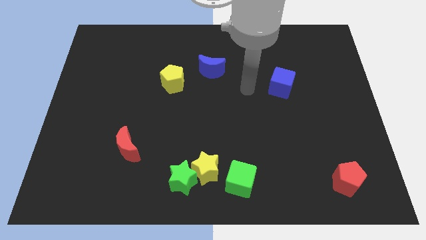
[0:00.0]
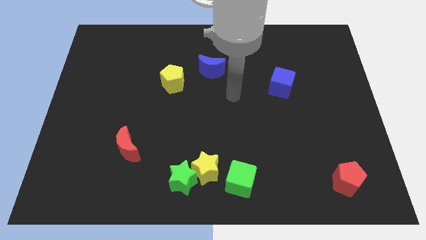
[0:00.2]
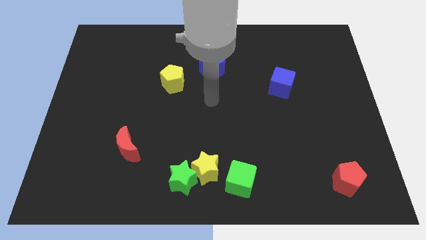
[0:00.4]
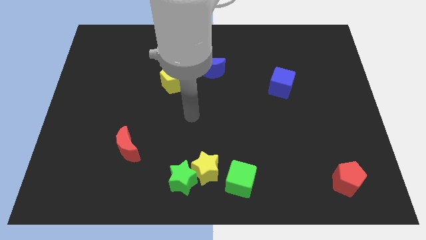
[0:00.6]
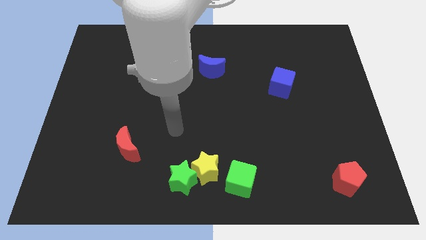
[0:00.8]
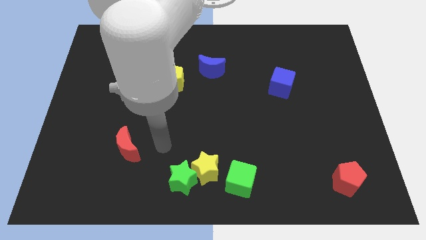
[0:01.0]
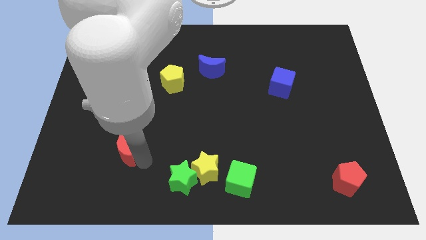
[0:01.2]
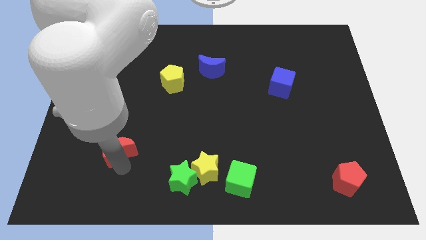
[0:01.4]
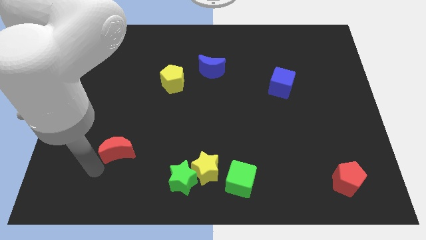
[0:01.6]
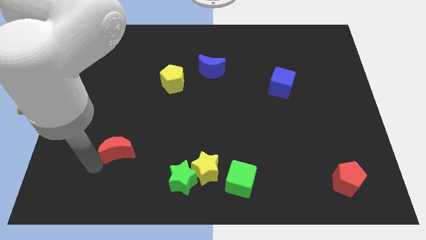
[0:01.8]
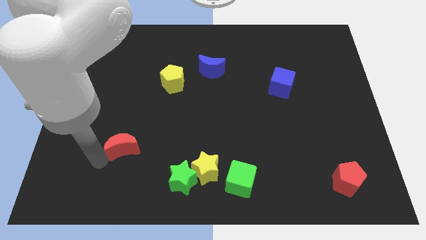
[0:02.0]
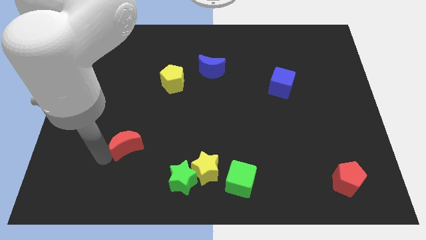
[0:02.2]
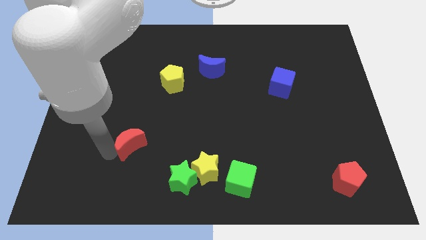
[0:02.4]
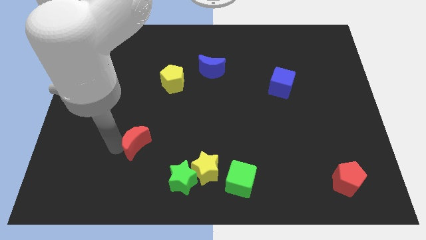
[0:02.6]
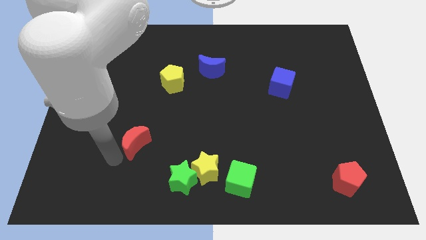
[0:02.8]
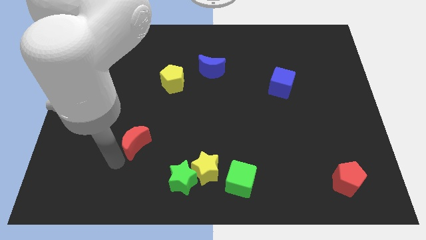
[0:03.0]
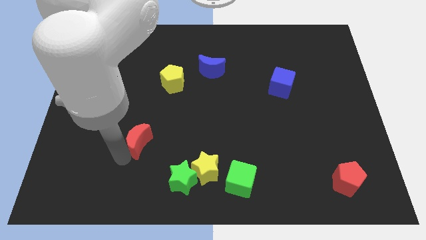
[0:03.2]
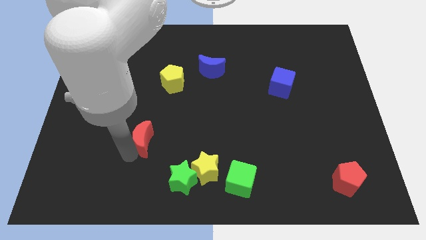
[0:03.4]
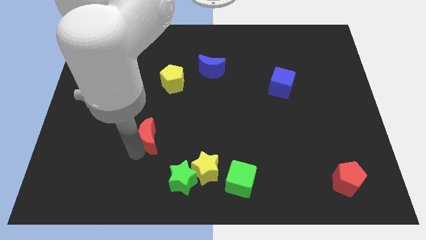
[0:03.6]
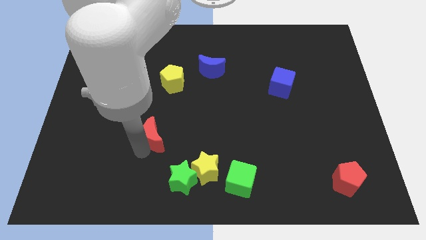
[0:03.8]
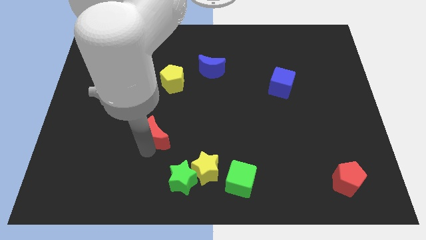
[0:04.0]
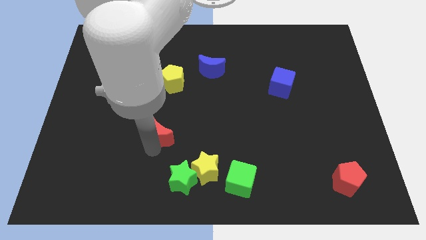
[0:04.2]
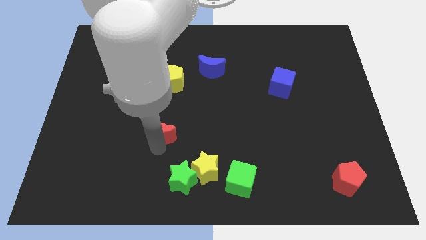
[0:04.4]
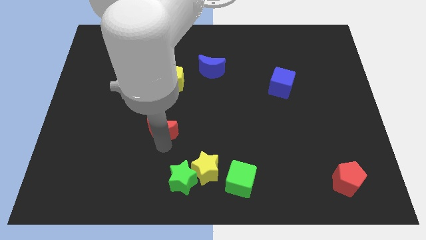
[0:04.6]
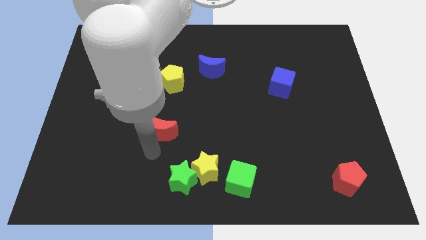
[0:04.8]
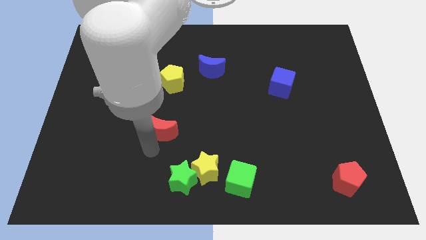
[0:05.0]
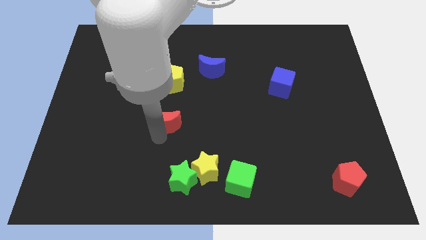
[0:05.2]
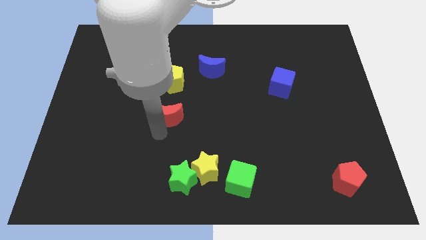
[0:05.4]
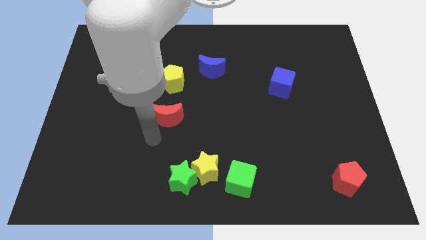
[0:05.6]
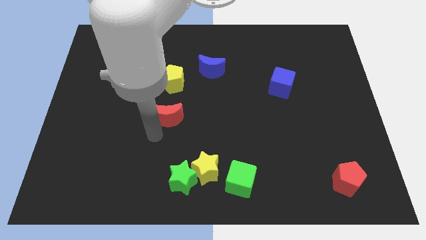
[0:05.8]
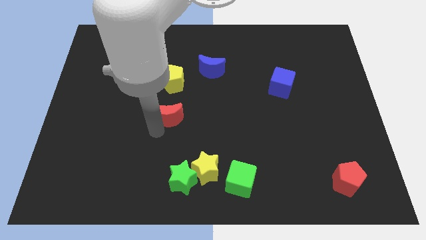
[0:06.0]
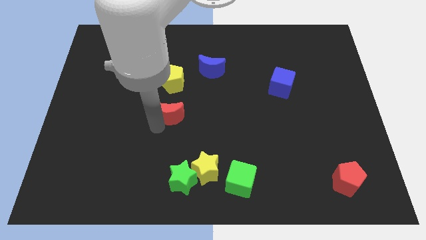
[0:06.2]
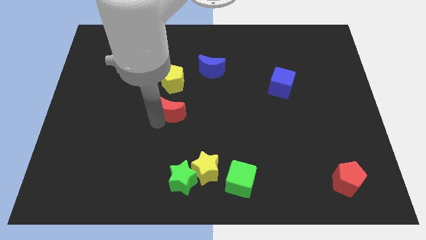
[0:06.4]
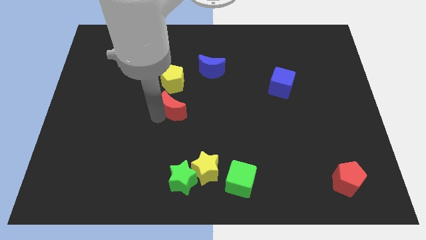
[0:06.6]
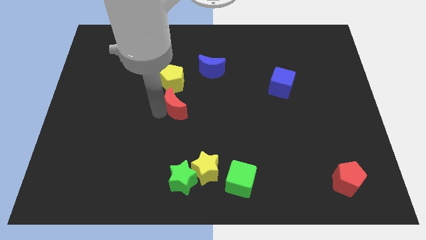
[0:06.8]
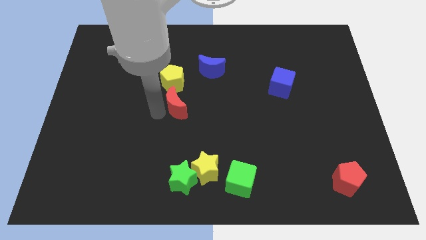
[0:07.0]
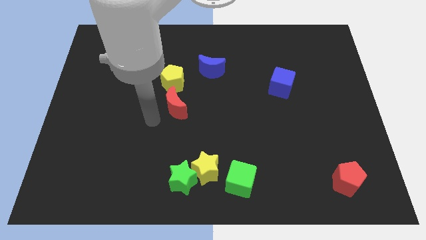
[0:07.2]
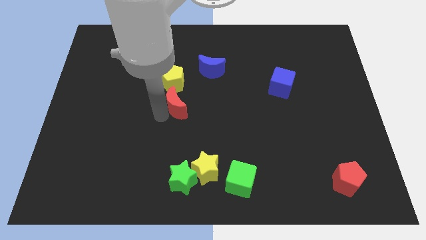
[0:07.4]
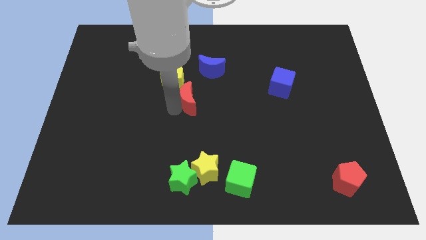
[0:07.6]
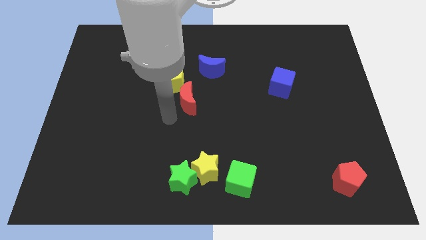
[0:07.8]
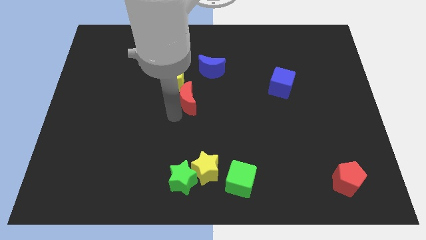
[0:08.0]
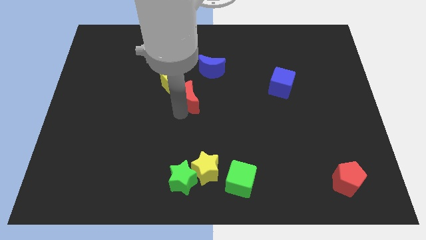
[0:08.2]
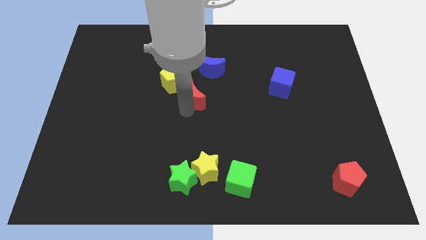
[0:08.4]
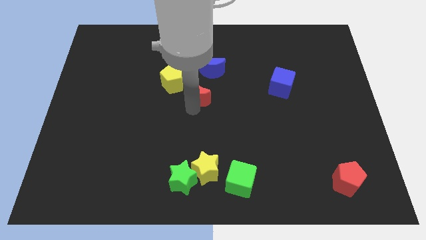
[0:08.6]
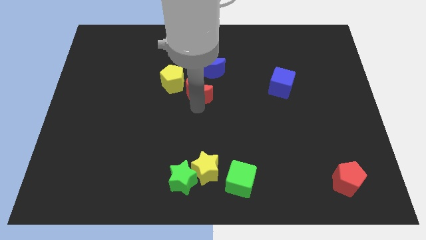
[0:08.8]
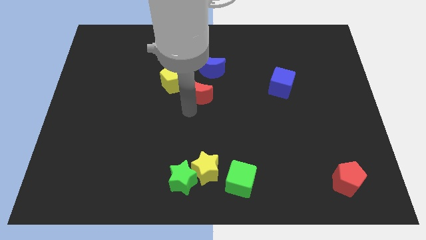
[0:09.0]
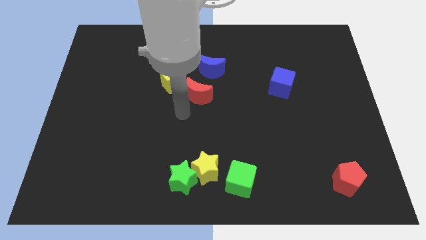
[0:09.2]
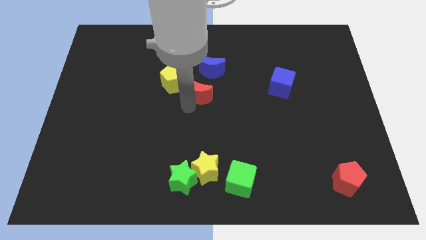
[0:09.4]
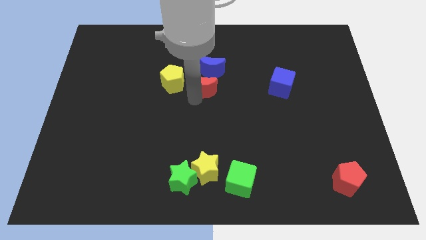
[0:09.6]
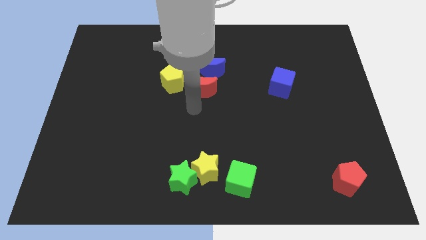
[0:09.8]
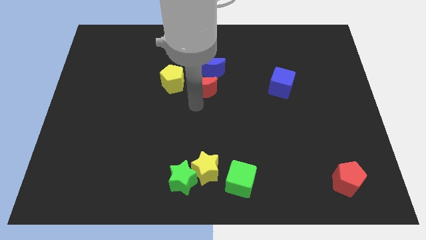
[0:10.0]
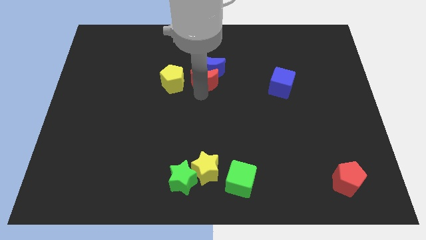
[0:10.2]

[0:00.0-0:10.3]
move the red moon next to the blue moon

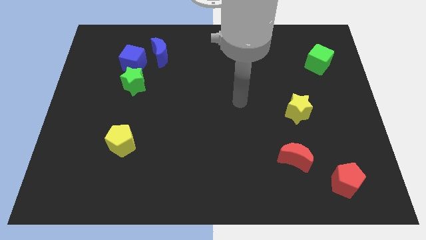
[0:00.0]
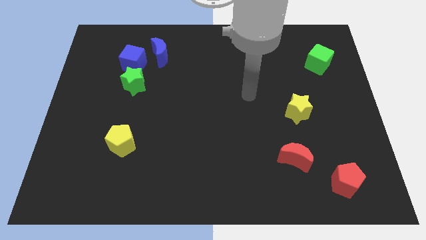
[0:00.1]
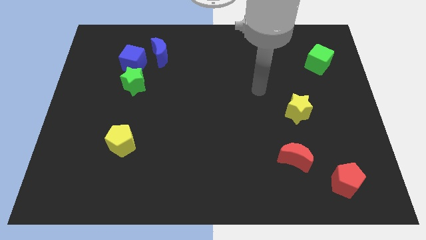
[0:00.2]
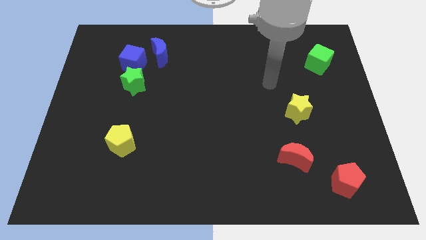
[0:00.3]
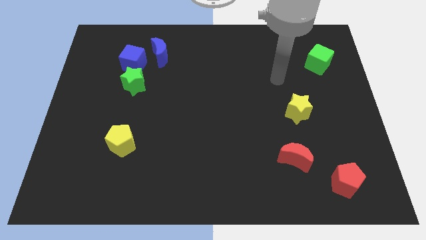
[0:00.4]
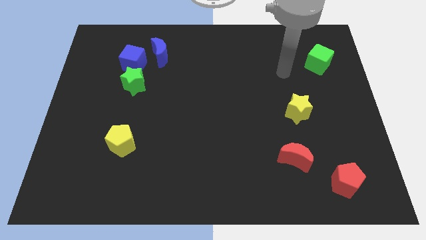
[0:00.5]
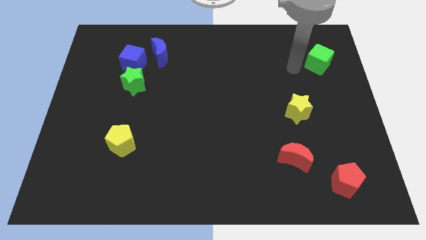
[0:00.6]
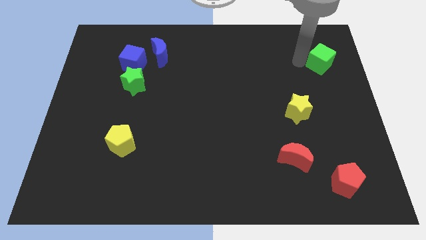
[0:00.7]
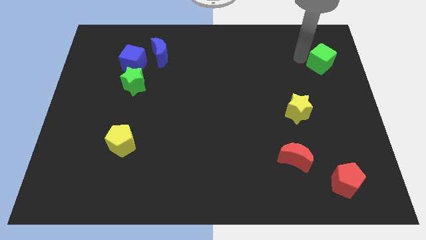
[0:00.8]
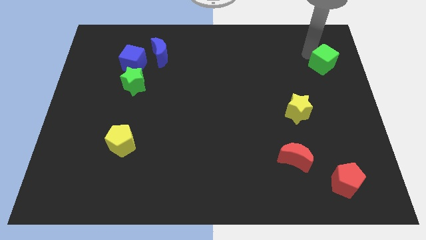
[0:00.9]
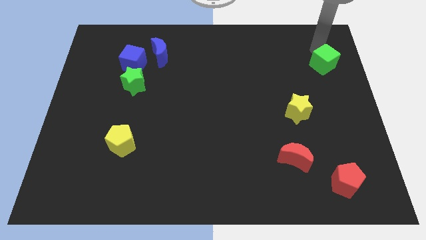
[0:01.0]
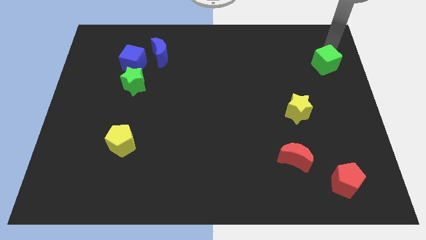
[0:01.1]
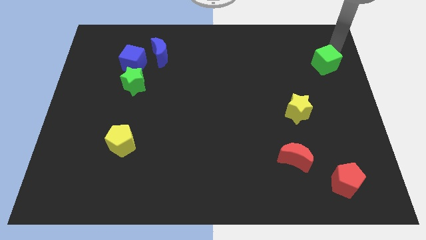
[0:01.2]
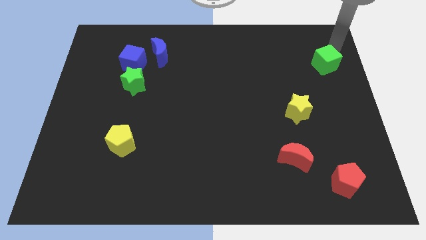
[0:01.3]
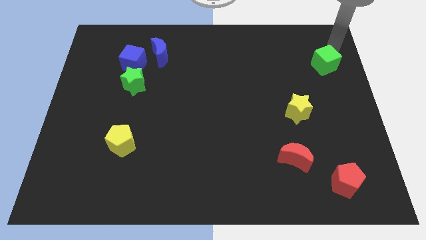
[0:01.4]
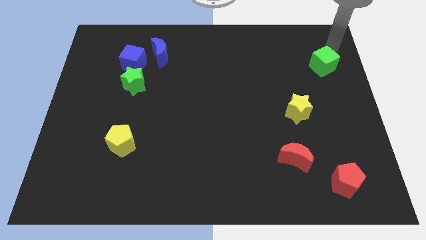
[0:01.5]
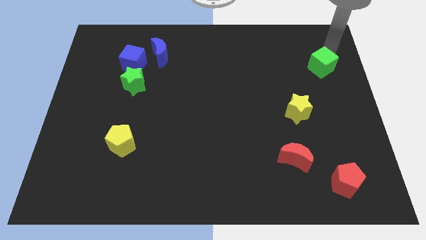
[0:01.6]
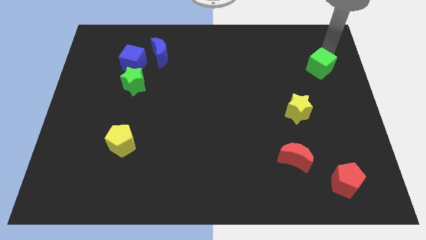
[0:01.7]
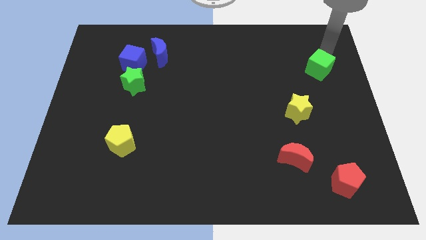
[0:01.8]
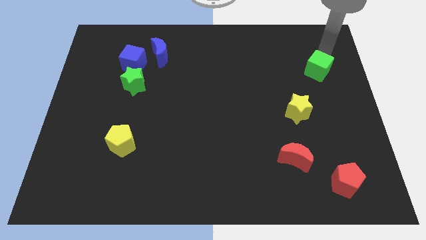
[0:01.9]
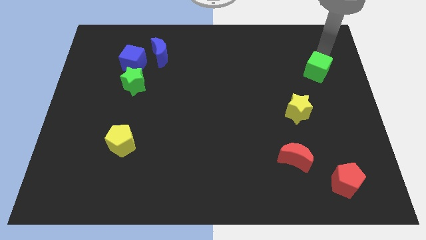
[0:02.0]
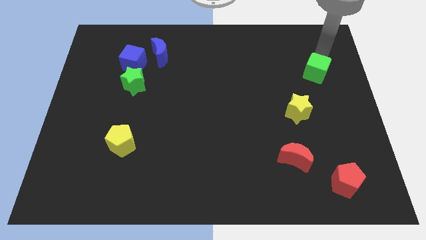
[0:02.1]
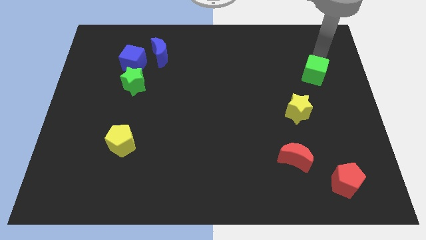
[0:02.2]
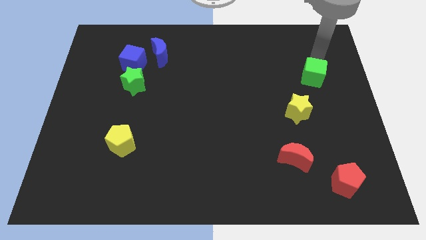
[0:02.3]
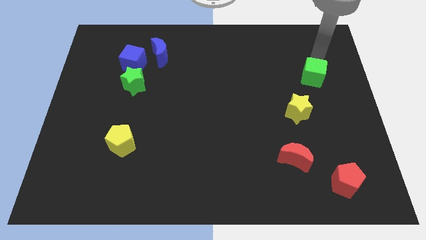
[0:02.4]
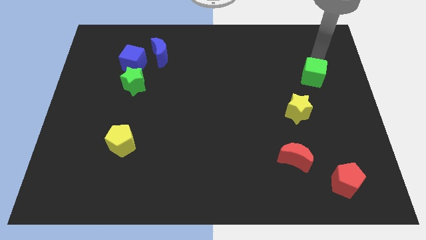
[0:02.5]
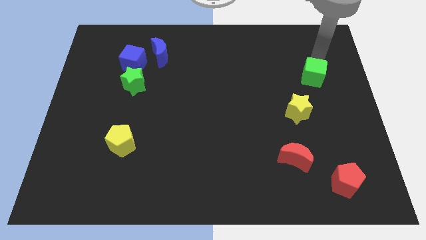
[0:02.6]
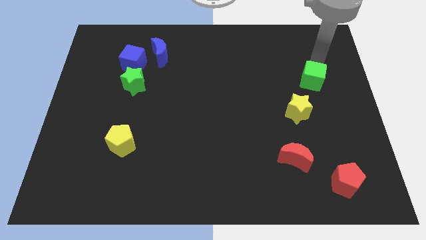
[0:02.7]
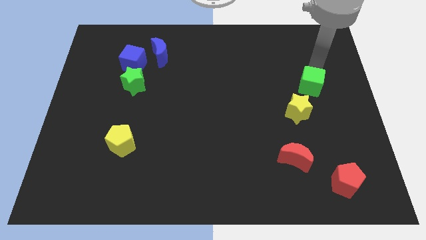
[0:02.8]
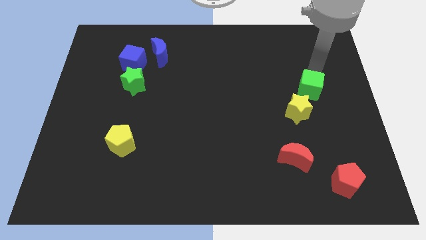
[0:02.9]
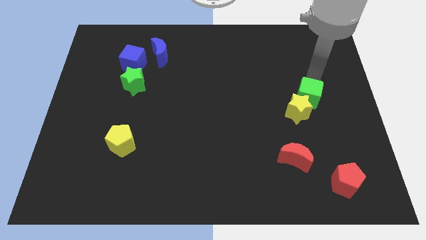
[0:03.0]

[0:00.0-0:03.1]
put the green cube towards the yellow star
